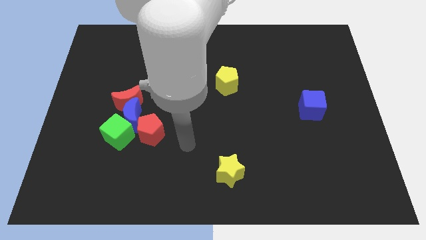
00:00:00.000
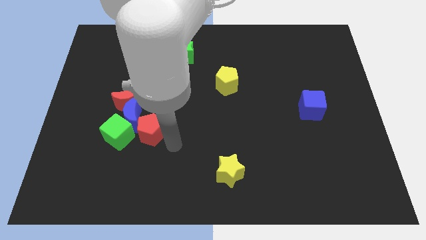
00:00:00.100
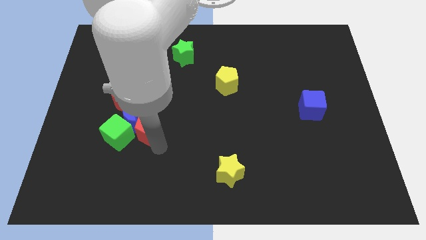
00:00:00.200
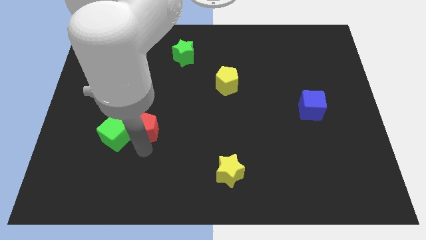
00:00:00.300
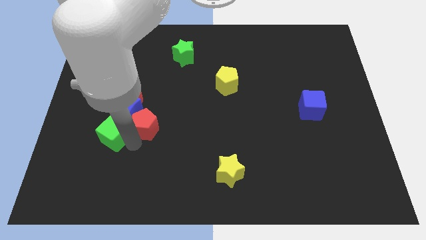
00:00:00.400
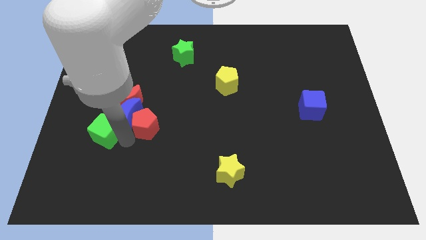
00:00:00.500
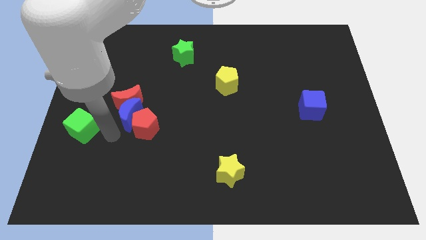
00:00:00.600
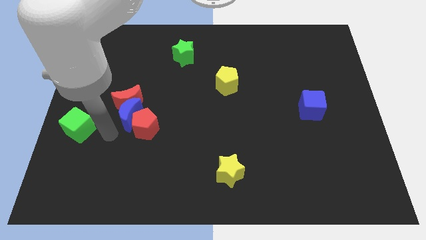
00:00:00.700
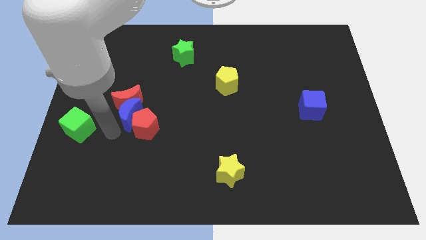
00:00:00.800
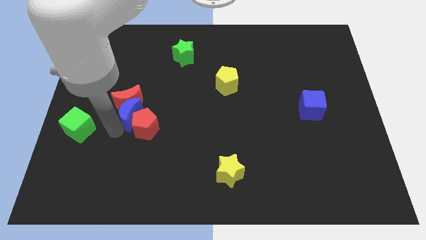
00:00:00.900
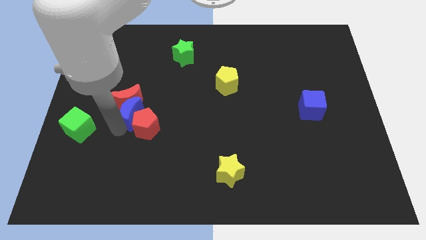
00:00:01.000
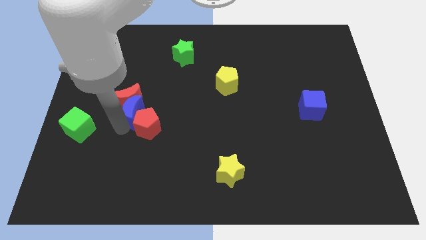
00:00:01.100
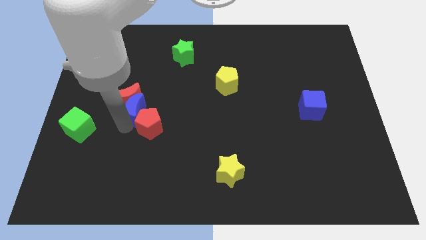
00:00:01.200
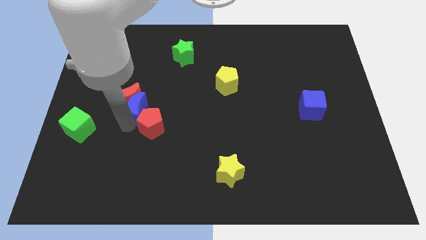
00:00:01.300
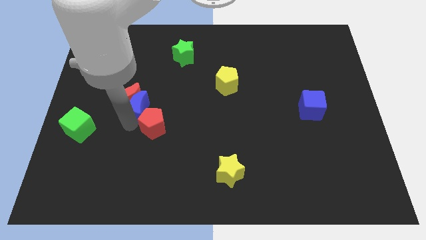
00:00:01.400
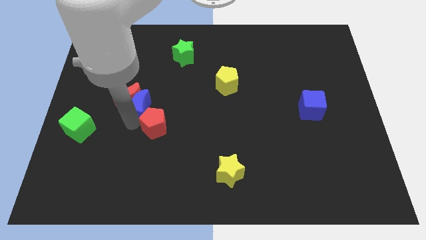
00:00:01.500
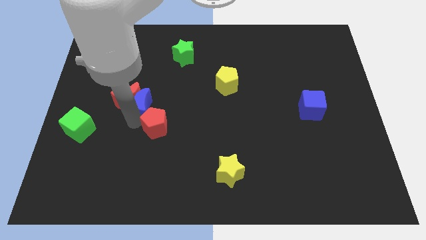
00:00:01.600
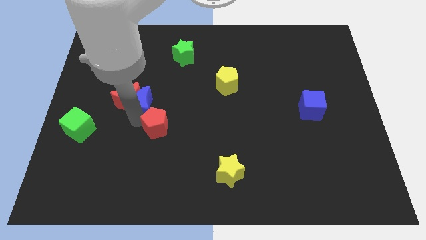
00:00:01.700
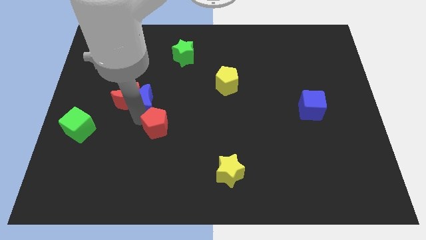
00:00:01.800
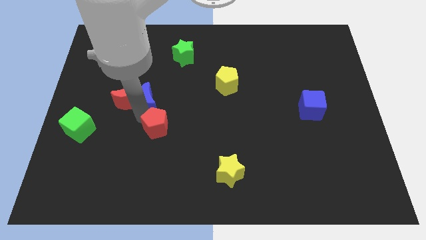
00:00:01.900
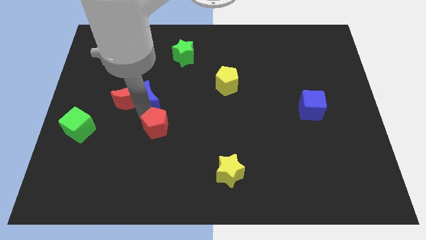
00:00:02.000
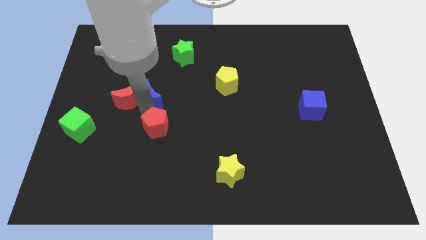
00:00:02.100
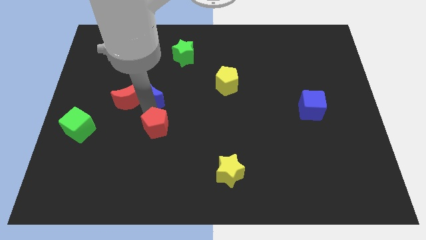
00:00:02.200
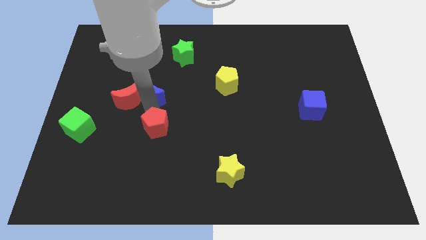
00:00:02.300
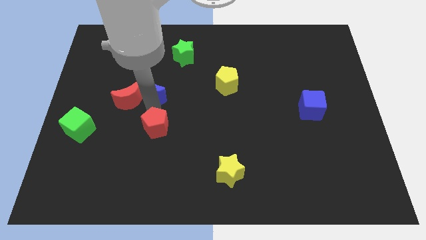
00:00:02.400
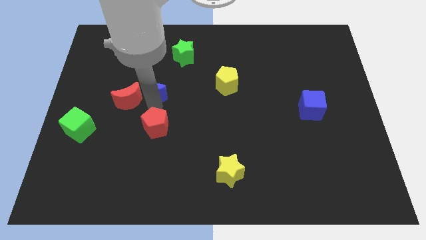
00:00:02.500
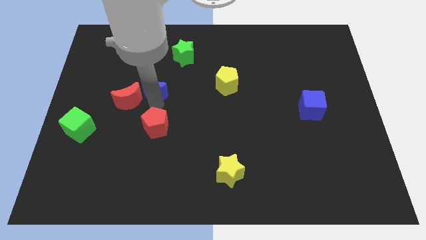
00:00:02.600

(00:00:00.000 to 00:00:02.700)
move the blue moon away from the group

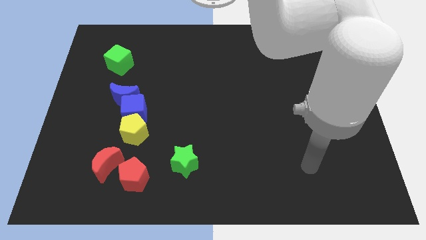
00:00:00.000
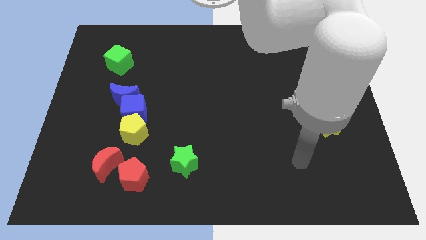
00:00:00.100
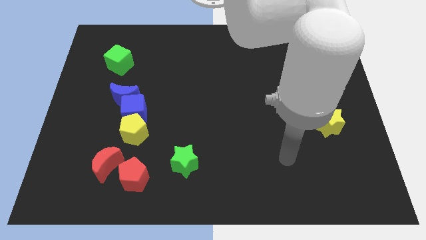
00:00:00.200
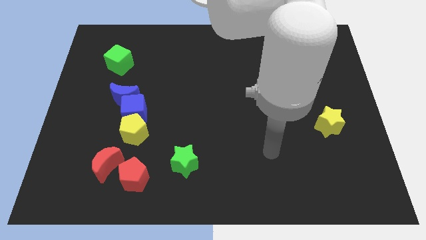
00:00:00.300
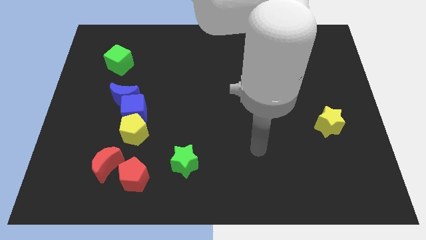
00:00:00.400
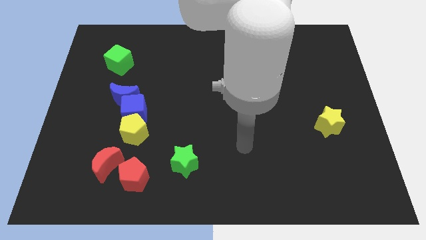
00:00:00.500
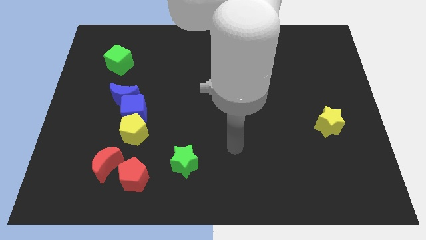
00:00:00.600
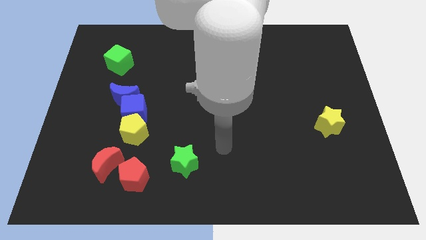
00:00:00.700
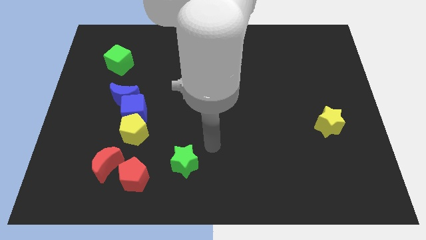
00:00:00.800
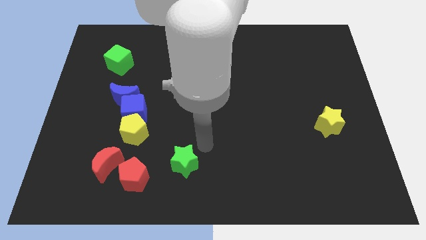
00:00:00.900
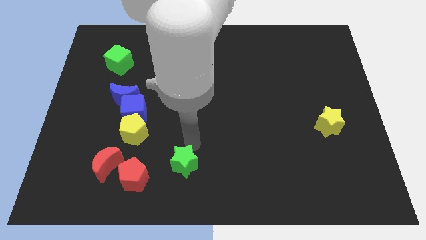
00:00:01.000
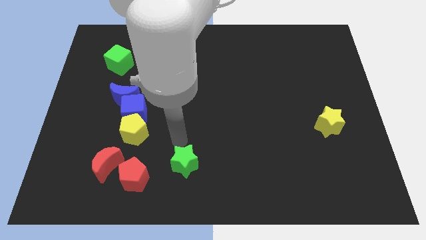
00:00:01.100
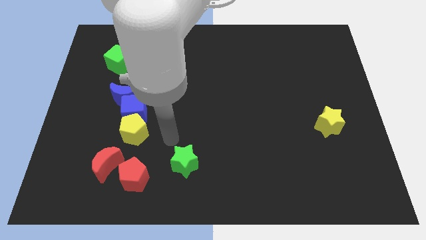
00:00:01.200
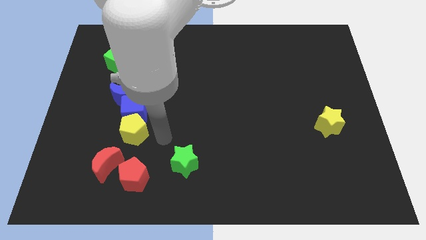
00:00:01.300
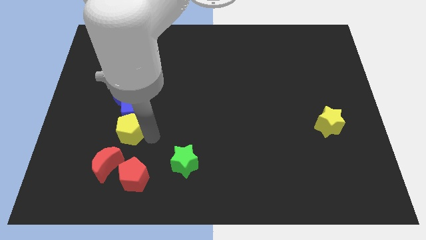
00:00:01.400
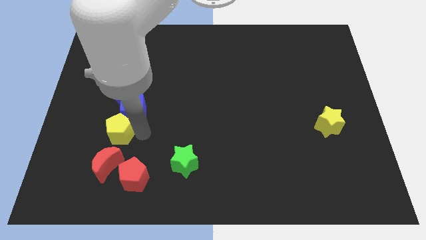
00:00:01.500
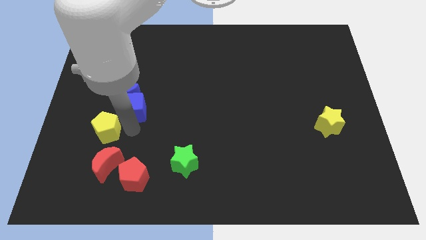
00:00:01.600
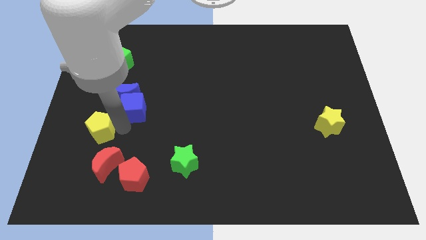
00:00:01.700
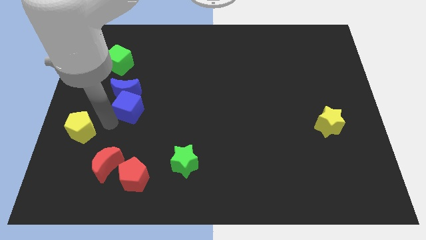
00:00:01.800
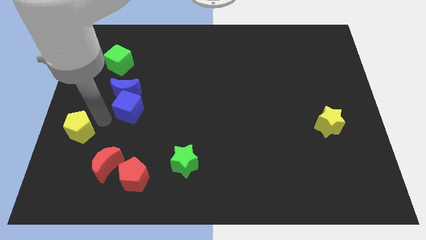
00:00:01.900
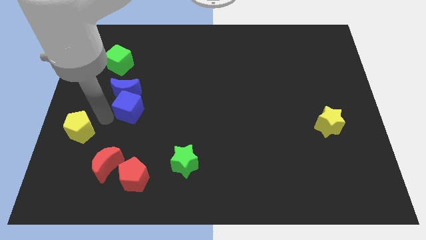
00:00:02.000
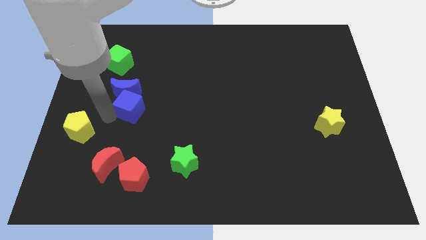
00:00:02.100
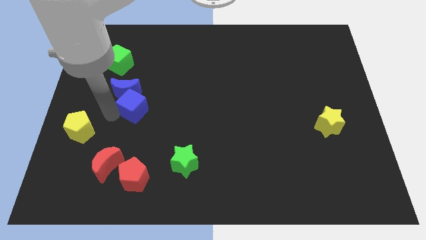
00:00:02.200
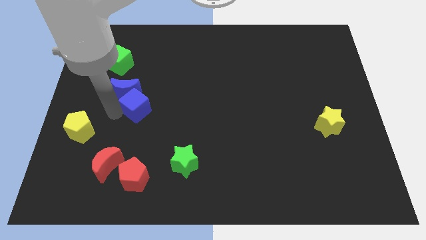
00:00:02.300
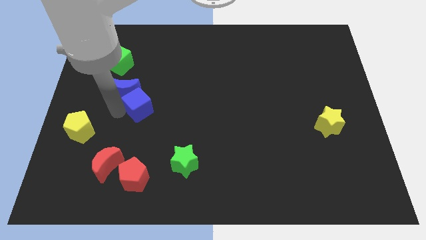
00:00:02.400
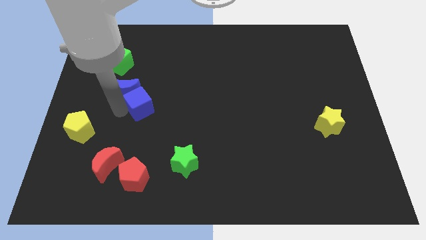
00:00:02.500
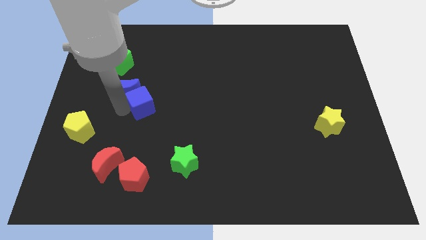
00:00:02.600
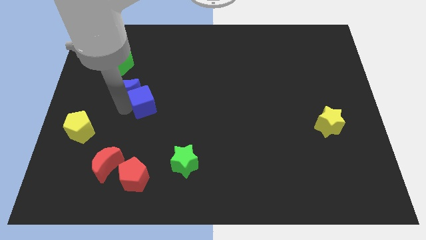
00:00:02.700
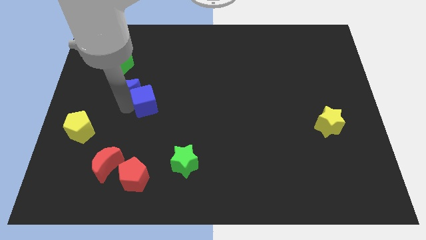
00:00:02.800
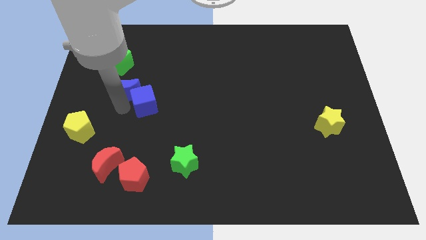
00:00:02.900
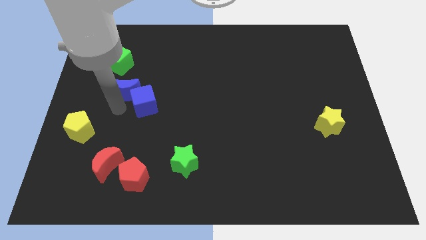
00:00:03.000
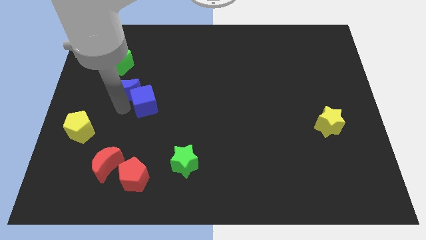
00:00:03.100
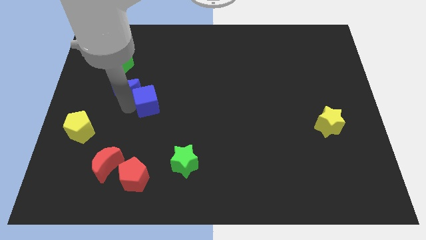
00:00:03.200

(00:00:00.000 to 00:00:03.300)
move the blue cube away from the blue moon and yellow pentagon

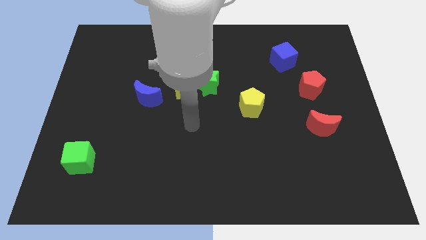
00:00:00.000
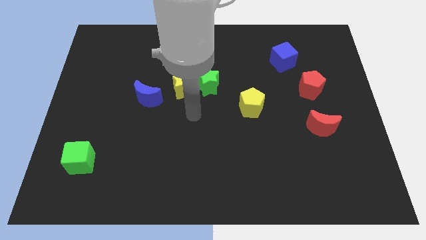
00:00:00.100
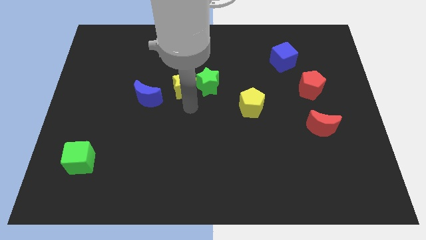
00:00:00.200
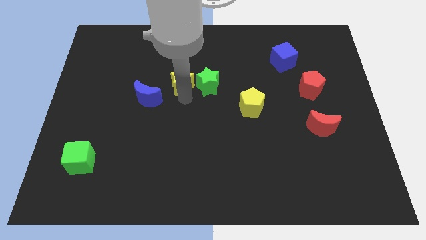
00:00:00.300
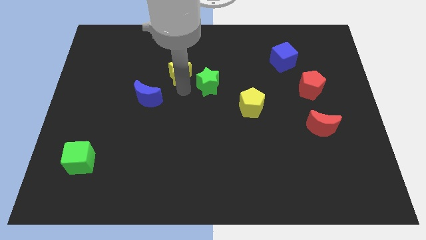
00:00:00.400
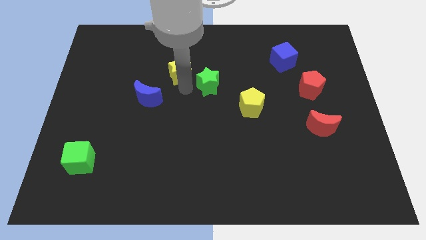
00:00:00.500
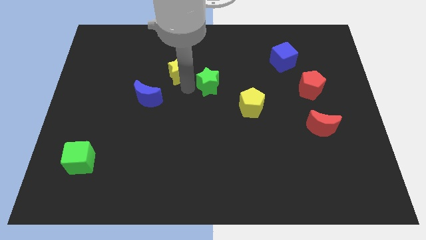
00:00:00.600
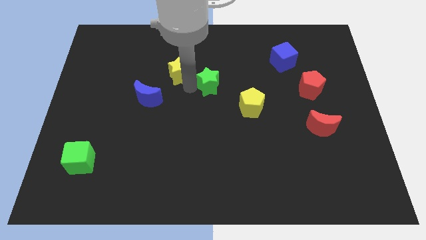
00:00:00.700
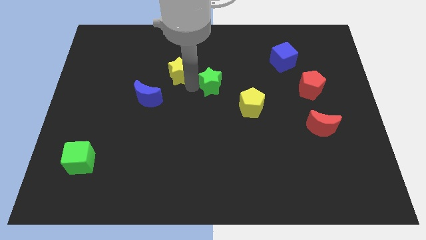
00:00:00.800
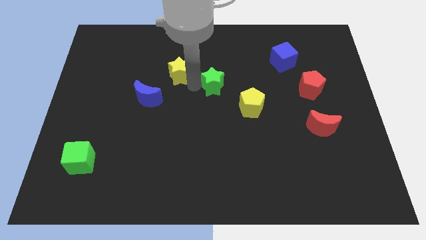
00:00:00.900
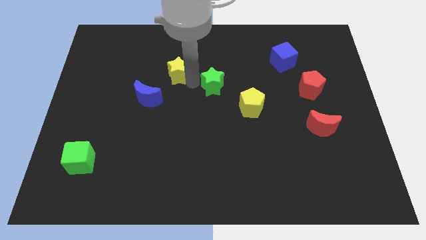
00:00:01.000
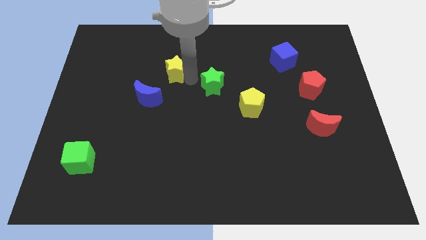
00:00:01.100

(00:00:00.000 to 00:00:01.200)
pull the green star apart from the yellow star

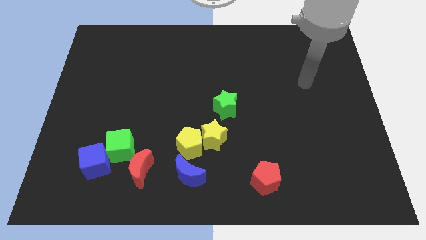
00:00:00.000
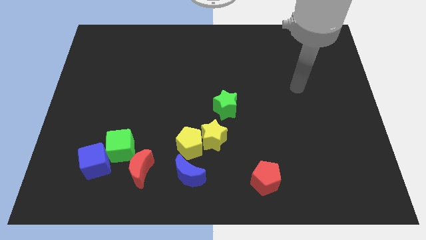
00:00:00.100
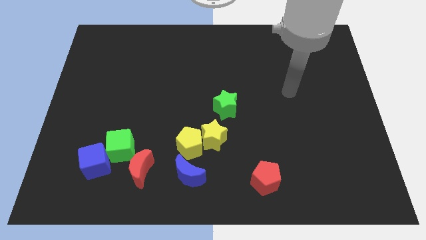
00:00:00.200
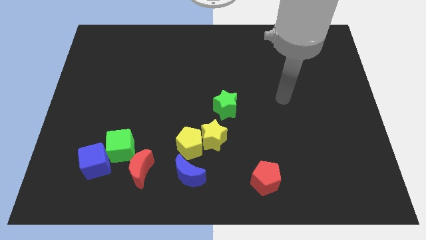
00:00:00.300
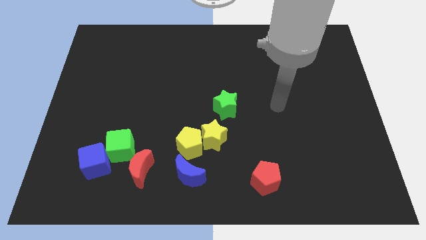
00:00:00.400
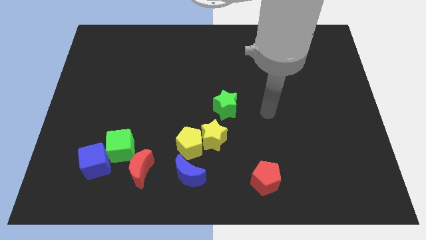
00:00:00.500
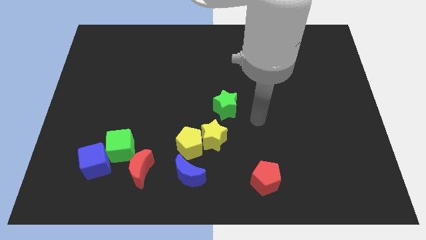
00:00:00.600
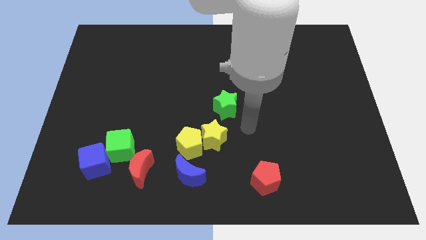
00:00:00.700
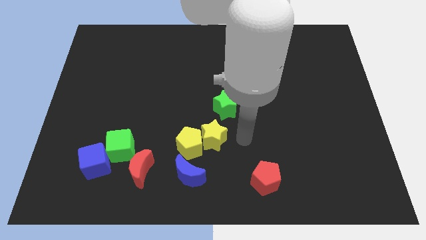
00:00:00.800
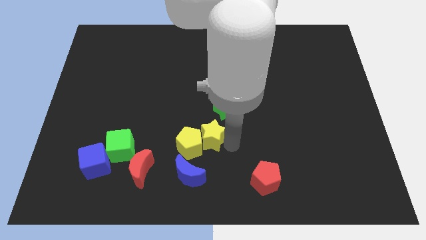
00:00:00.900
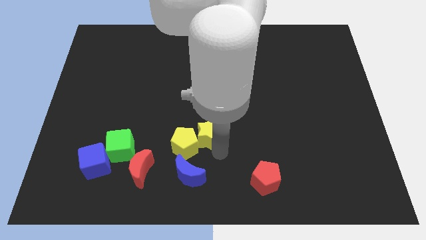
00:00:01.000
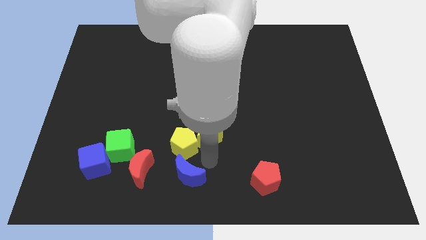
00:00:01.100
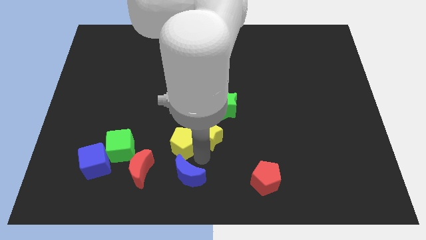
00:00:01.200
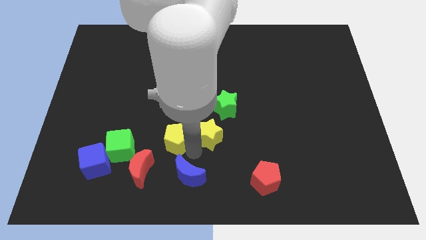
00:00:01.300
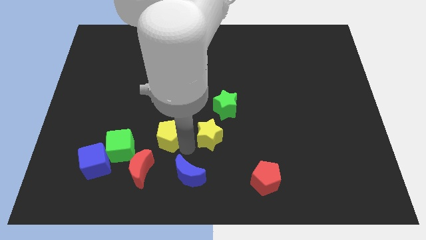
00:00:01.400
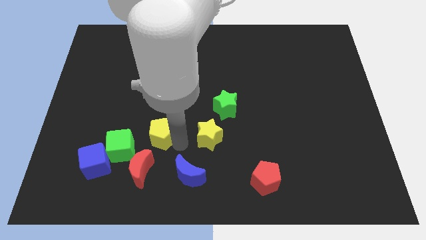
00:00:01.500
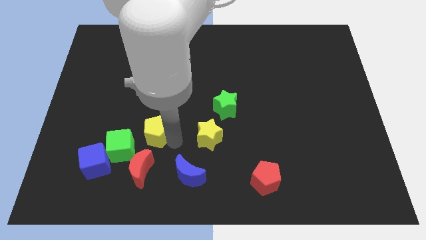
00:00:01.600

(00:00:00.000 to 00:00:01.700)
move the yellow pentagon away from the yellow star and blue moon

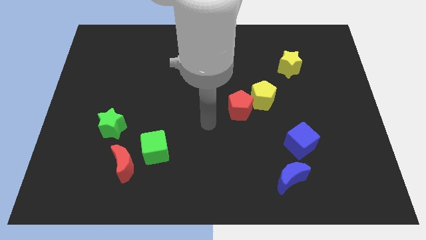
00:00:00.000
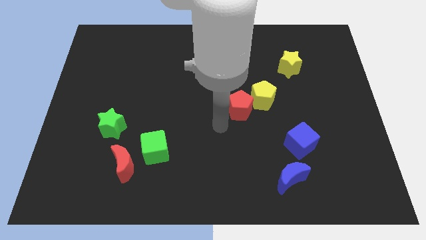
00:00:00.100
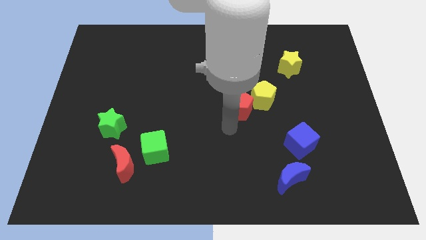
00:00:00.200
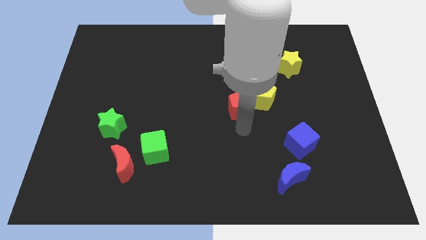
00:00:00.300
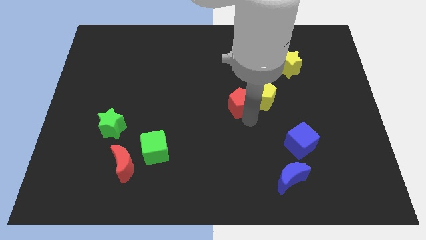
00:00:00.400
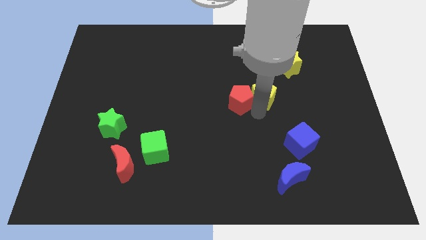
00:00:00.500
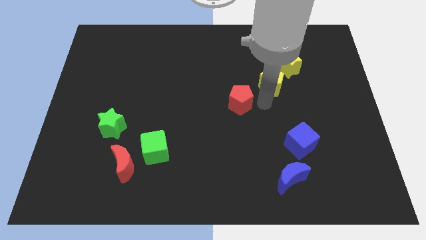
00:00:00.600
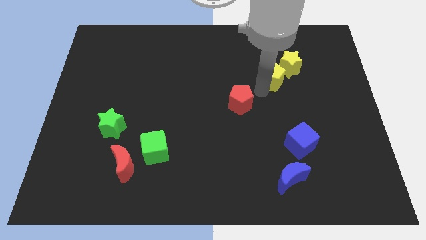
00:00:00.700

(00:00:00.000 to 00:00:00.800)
separate the red pentagon from the yellow pentagon
